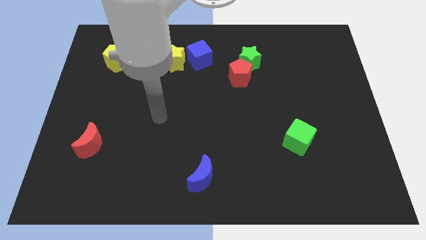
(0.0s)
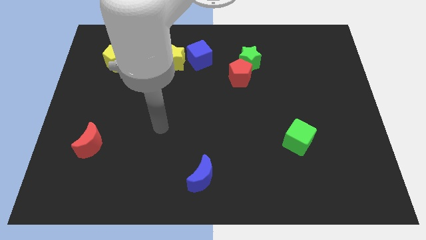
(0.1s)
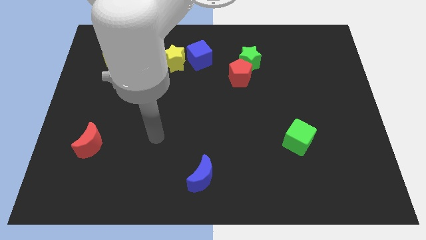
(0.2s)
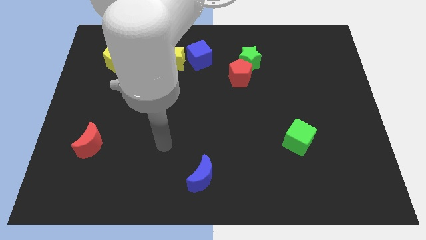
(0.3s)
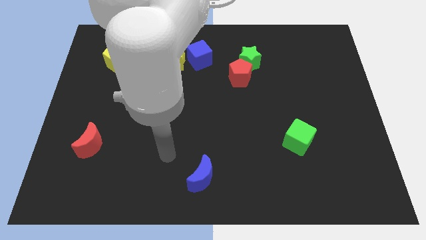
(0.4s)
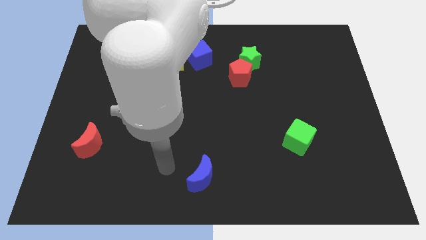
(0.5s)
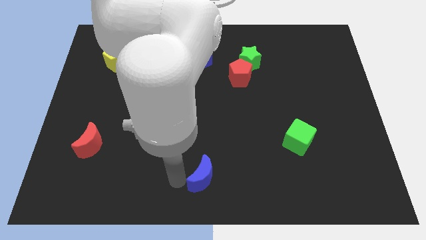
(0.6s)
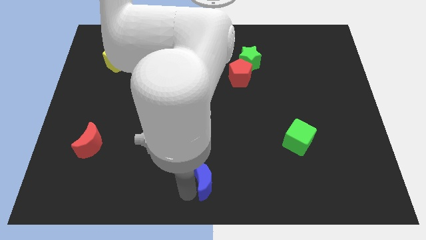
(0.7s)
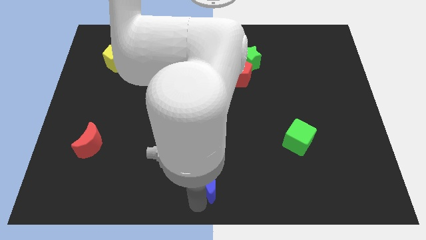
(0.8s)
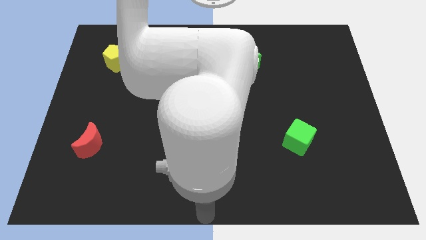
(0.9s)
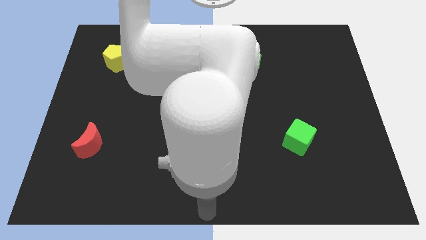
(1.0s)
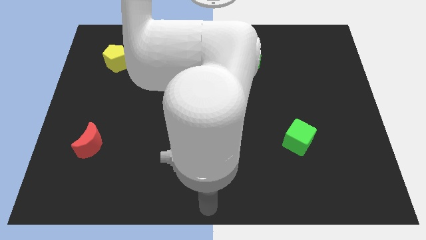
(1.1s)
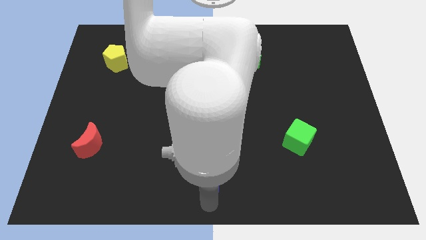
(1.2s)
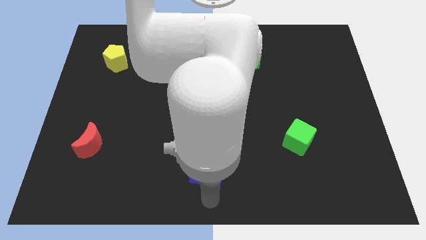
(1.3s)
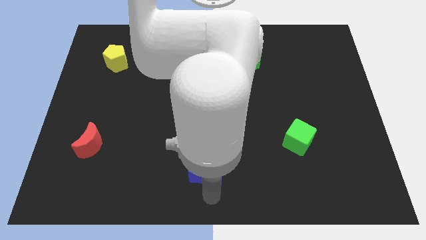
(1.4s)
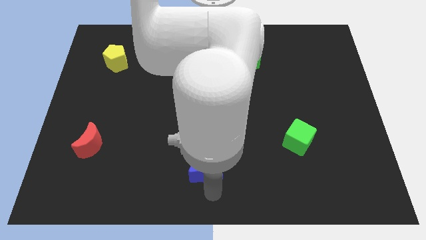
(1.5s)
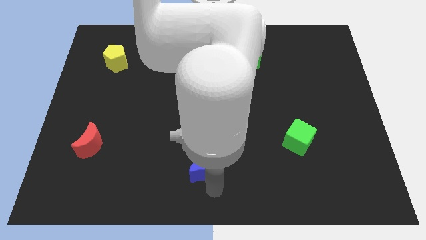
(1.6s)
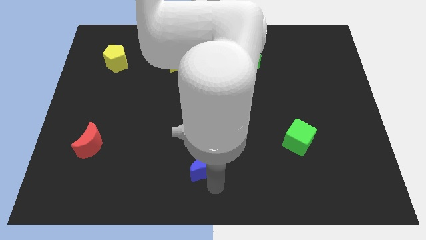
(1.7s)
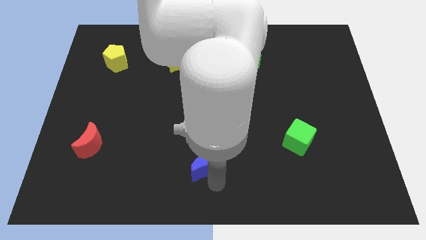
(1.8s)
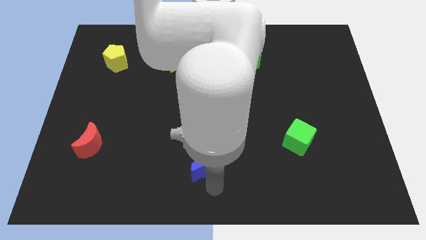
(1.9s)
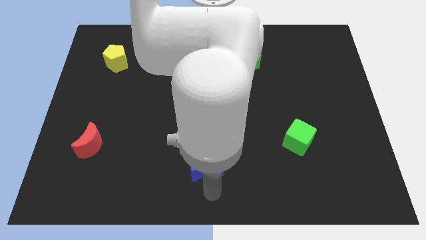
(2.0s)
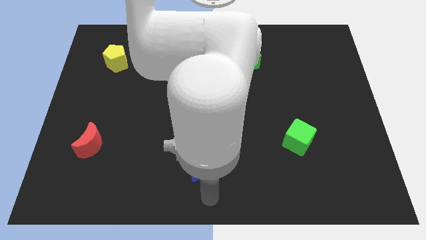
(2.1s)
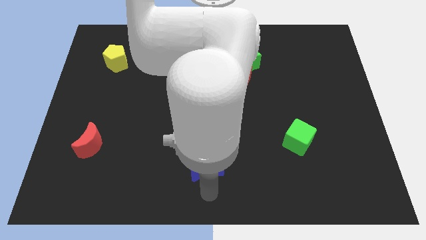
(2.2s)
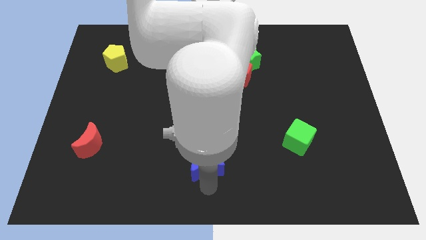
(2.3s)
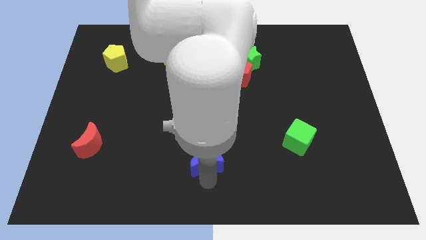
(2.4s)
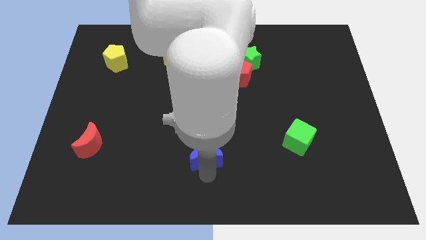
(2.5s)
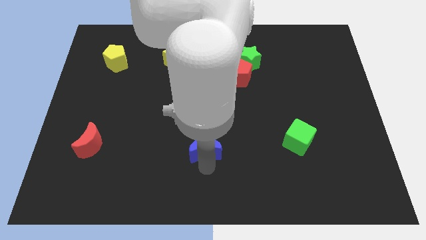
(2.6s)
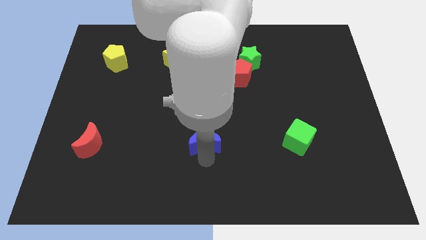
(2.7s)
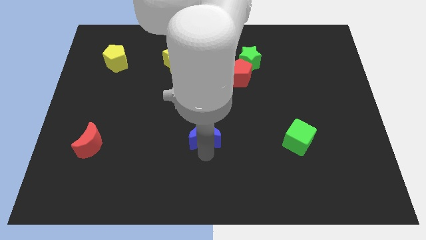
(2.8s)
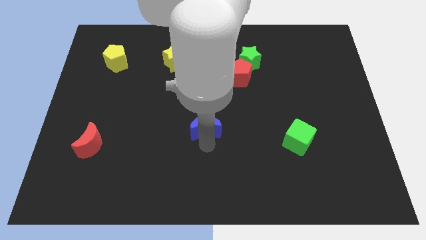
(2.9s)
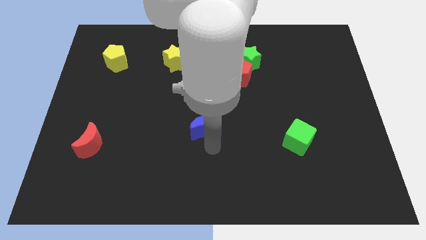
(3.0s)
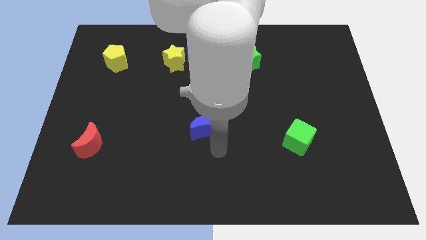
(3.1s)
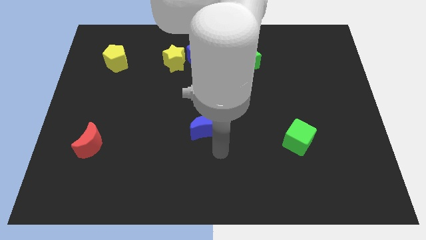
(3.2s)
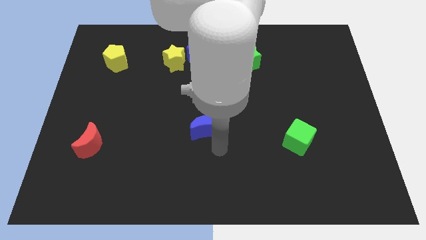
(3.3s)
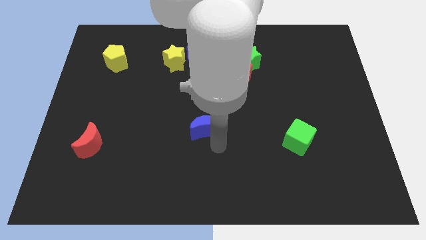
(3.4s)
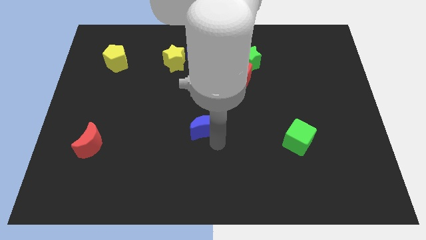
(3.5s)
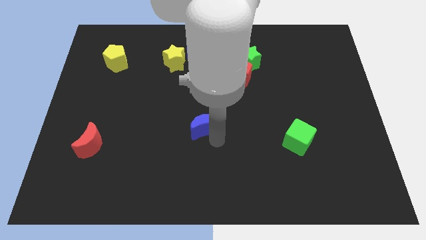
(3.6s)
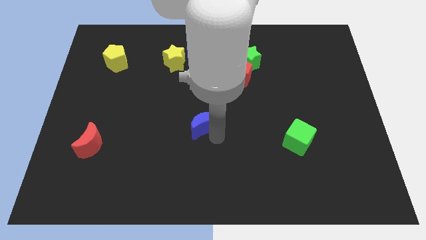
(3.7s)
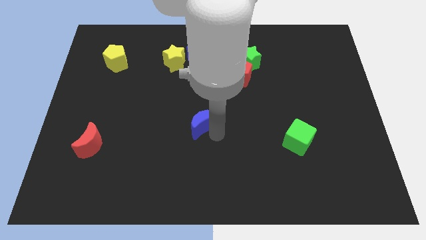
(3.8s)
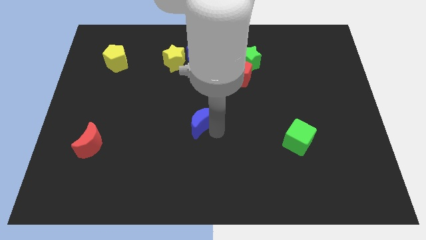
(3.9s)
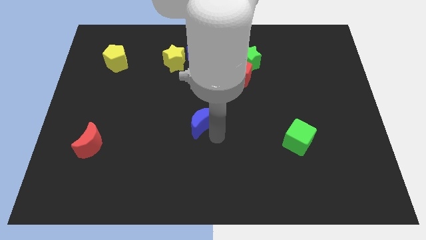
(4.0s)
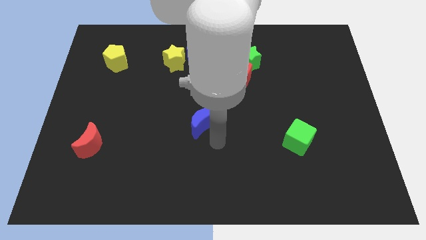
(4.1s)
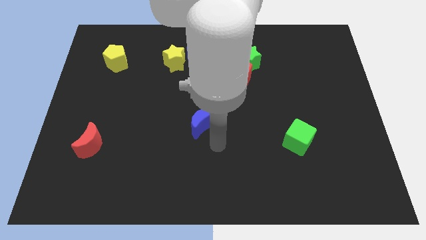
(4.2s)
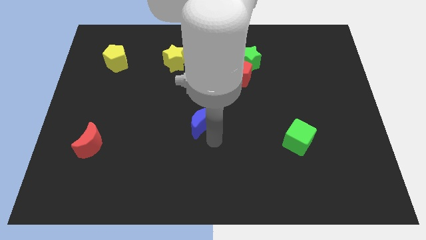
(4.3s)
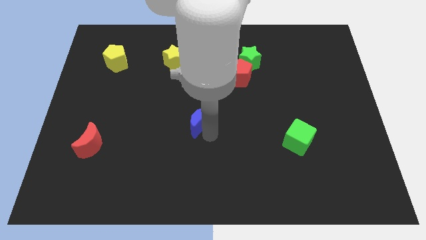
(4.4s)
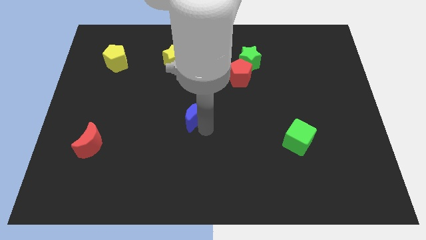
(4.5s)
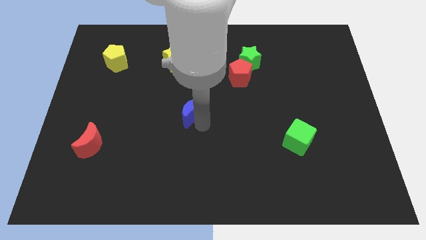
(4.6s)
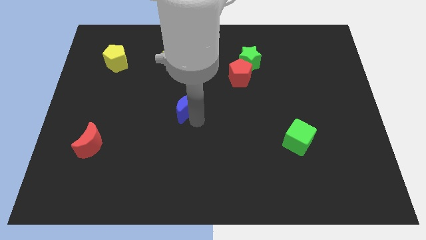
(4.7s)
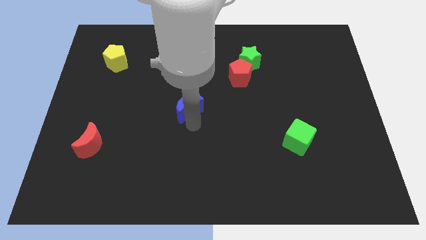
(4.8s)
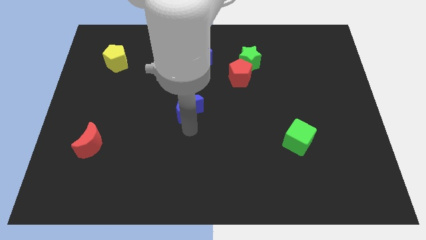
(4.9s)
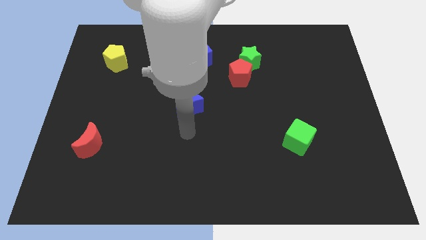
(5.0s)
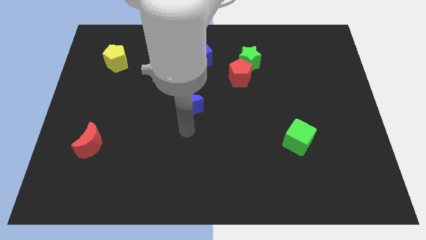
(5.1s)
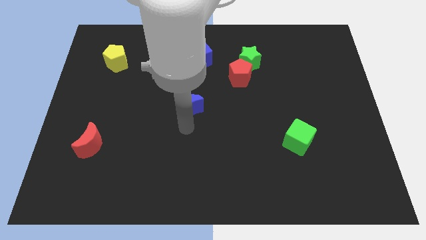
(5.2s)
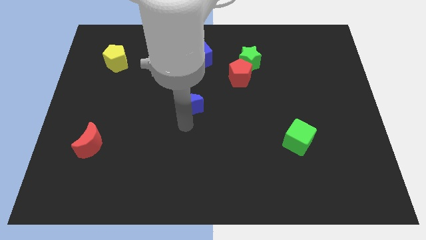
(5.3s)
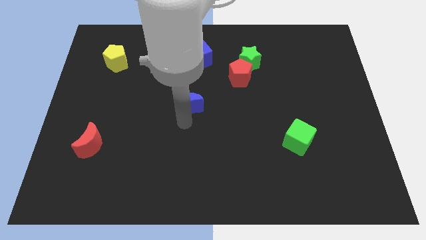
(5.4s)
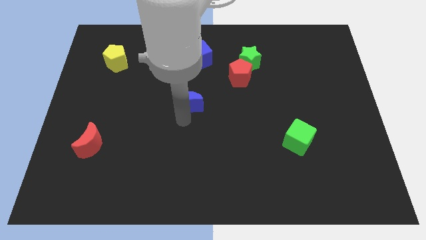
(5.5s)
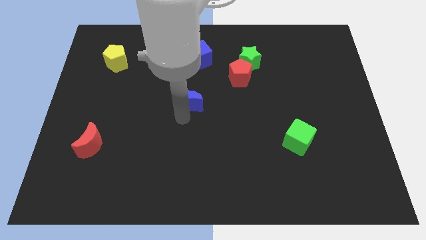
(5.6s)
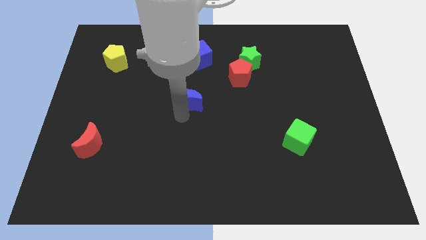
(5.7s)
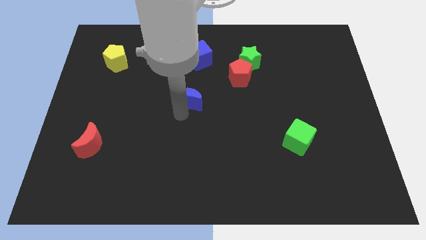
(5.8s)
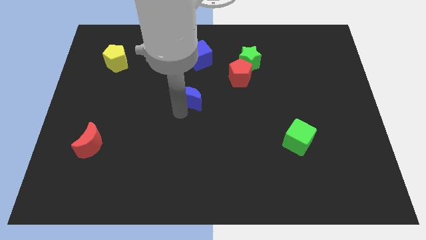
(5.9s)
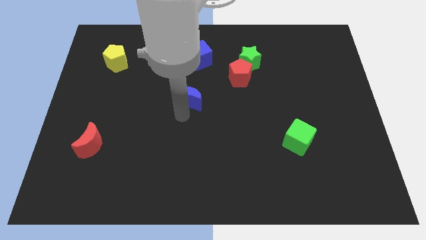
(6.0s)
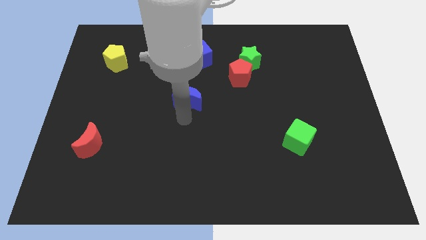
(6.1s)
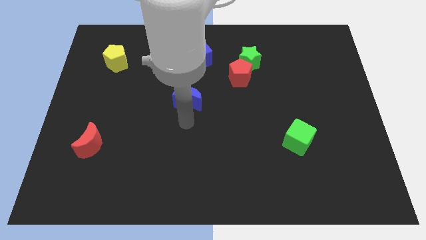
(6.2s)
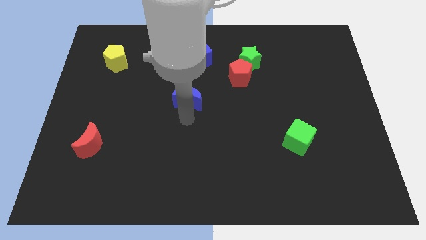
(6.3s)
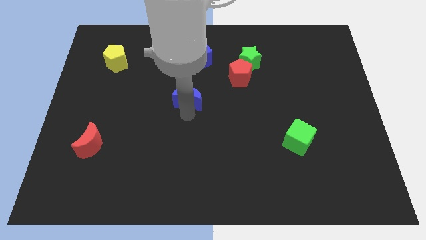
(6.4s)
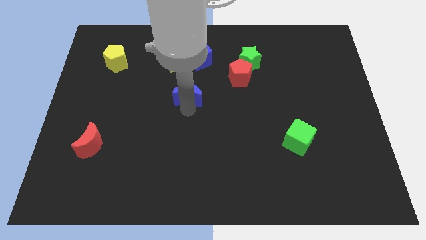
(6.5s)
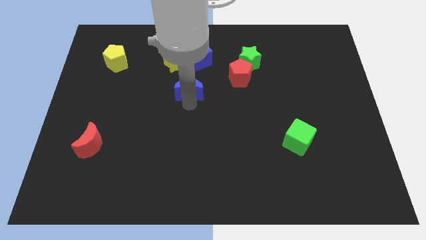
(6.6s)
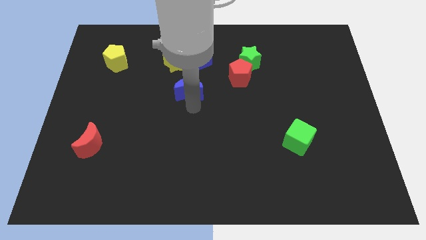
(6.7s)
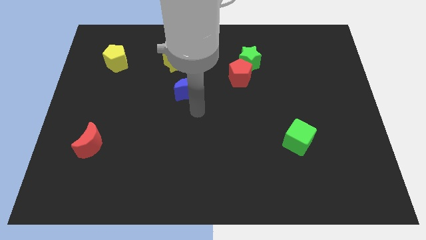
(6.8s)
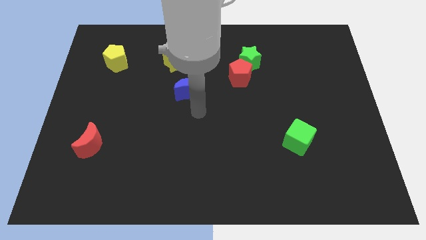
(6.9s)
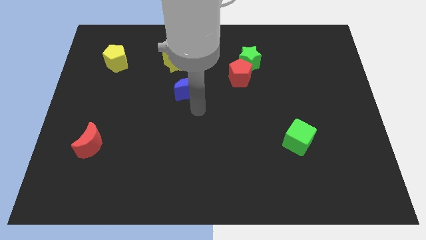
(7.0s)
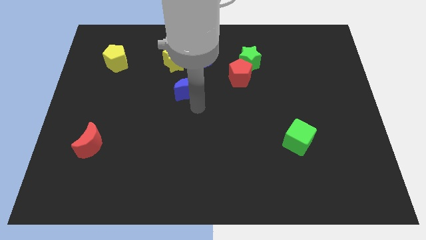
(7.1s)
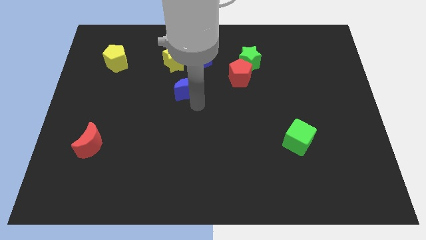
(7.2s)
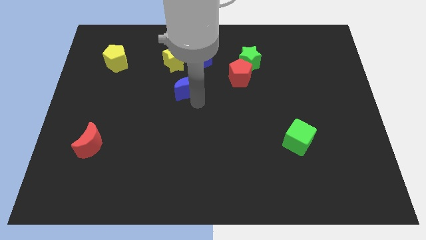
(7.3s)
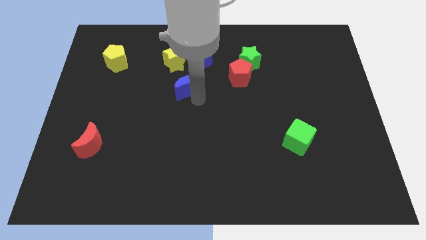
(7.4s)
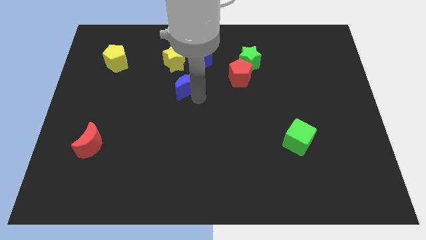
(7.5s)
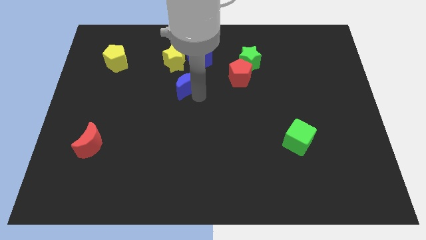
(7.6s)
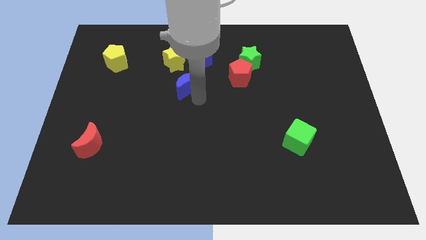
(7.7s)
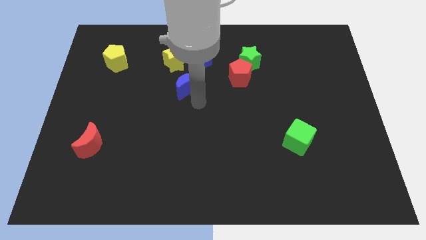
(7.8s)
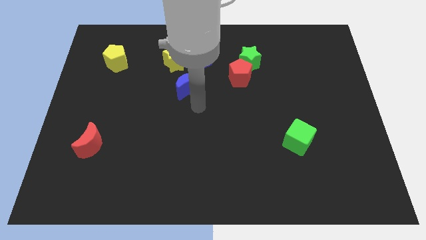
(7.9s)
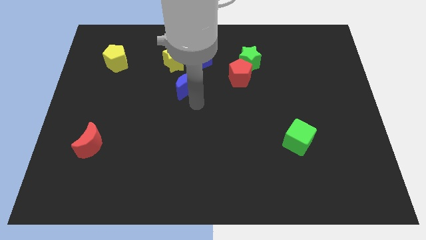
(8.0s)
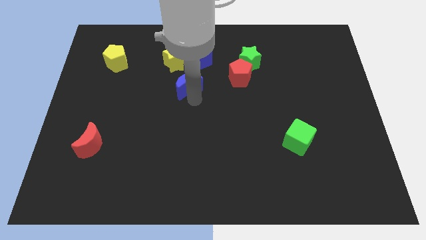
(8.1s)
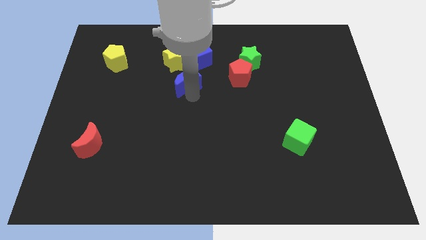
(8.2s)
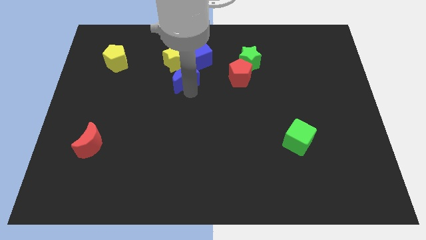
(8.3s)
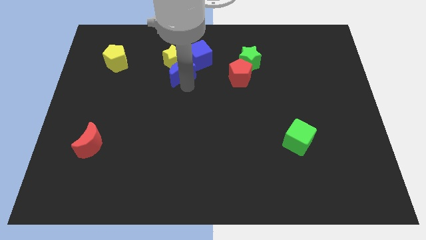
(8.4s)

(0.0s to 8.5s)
slide the blue moon next to the yellow star
